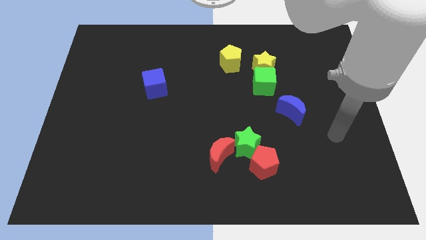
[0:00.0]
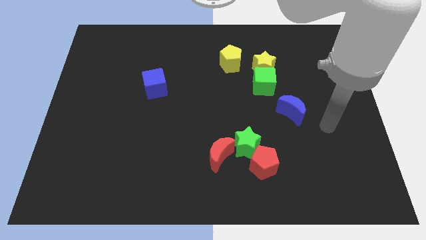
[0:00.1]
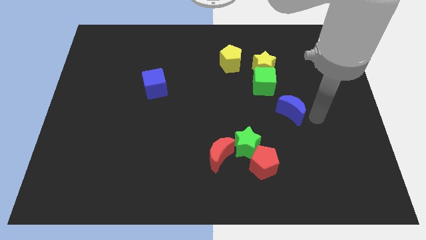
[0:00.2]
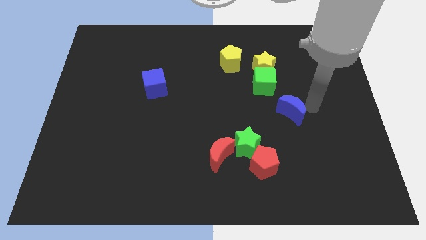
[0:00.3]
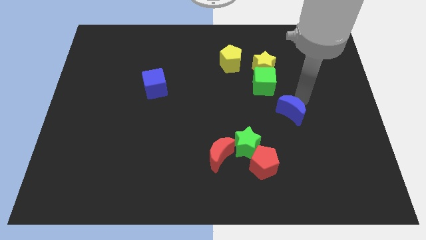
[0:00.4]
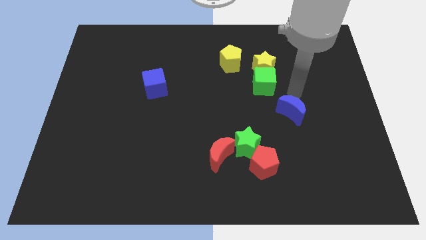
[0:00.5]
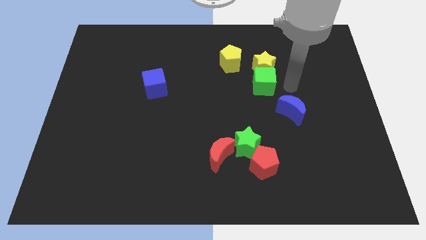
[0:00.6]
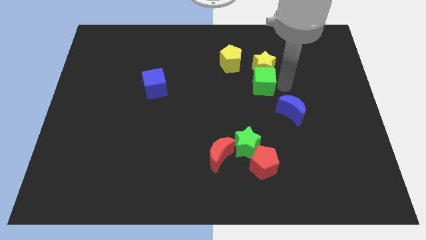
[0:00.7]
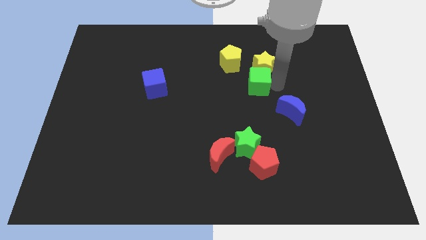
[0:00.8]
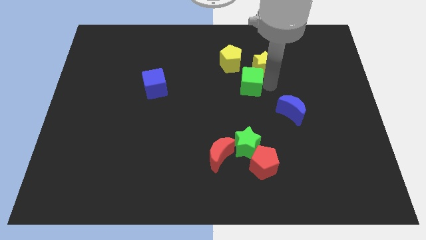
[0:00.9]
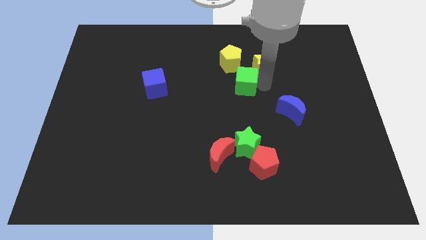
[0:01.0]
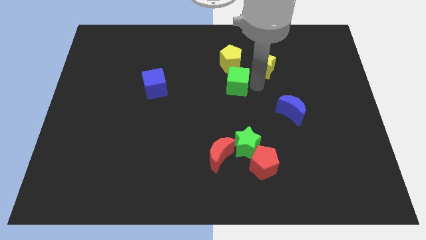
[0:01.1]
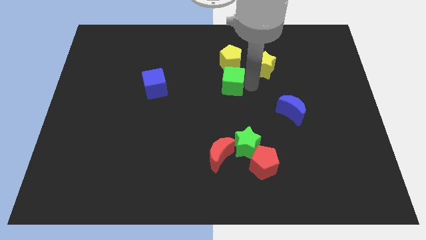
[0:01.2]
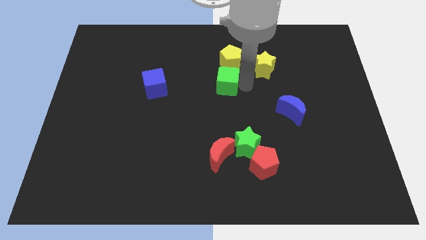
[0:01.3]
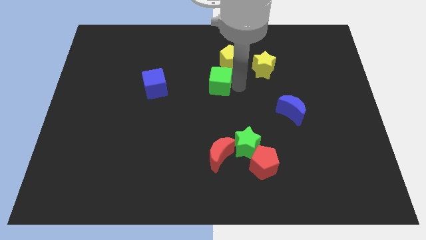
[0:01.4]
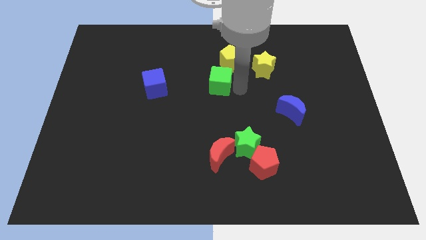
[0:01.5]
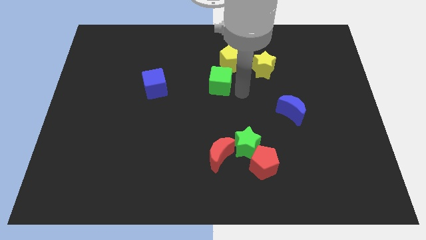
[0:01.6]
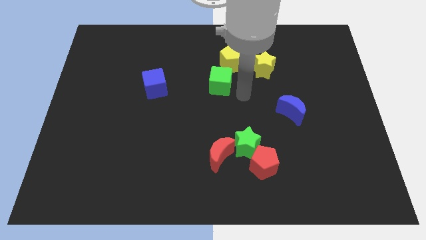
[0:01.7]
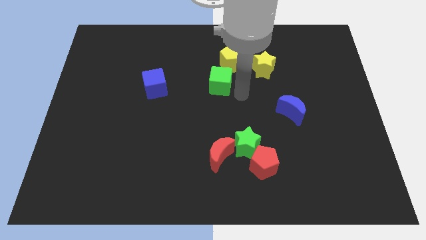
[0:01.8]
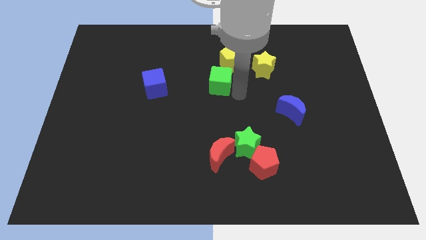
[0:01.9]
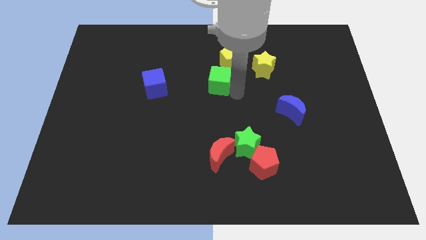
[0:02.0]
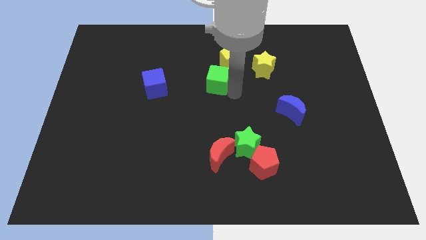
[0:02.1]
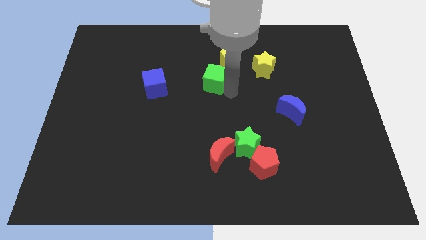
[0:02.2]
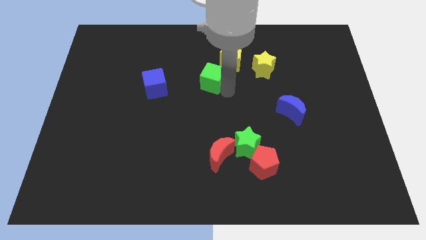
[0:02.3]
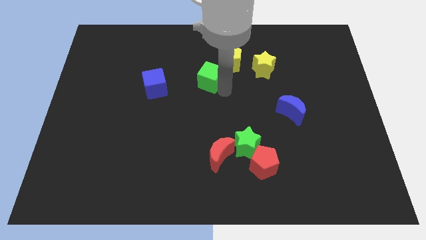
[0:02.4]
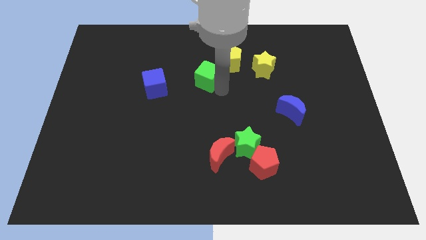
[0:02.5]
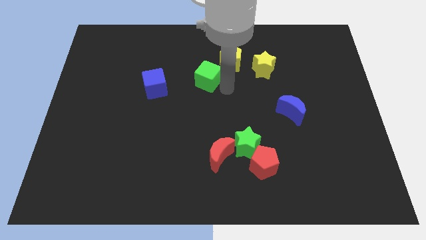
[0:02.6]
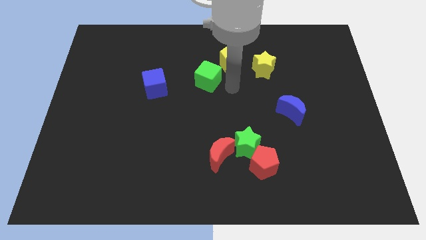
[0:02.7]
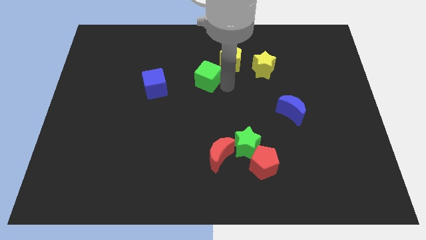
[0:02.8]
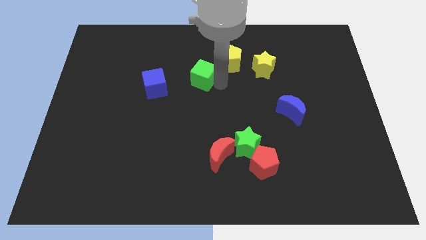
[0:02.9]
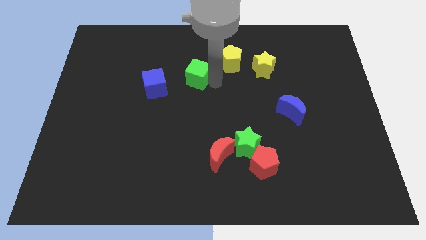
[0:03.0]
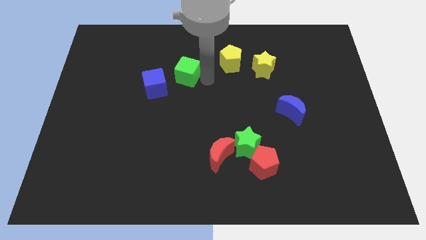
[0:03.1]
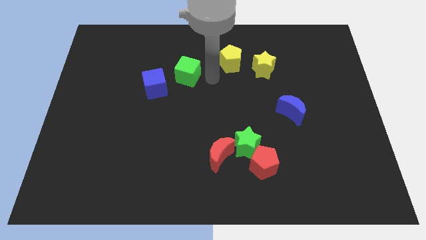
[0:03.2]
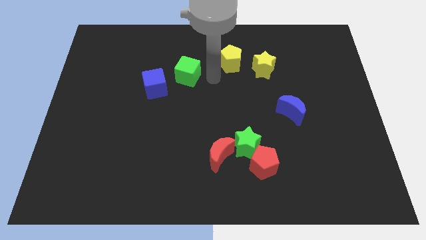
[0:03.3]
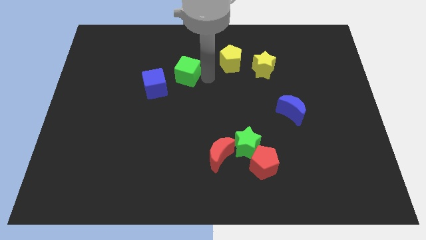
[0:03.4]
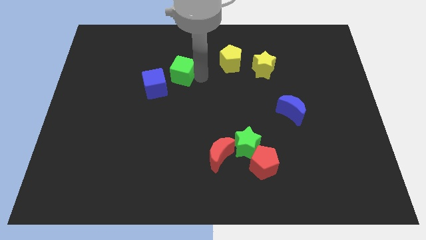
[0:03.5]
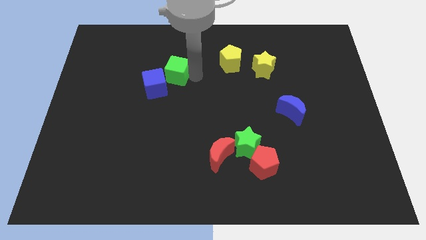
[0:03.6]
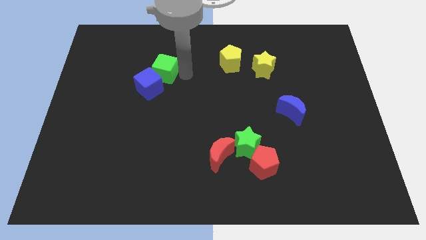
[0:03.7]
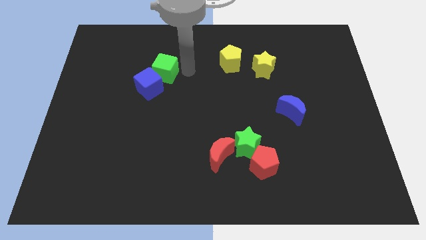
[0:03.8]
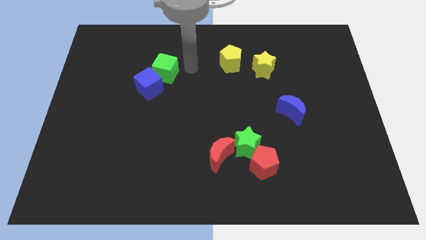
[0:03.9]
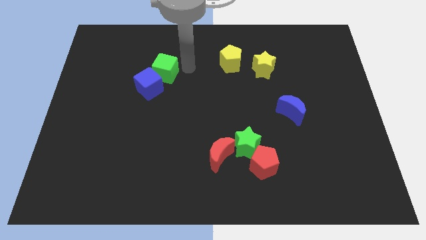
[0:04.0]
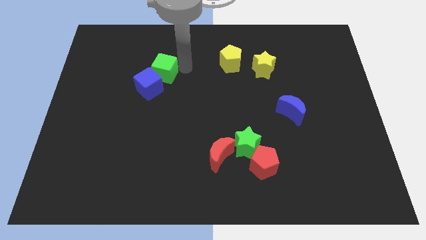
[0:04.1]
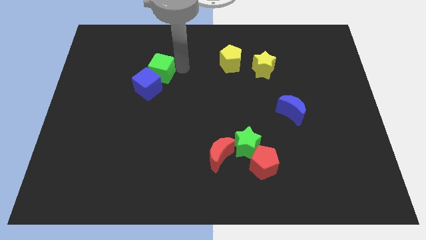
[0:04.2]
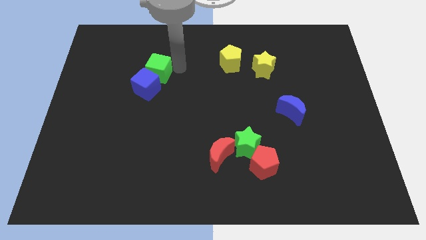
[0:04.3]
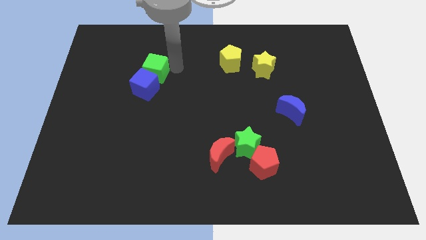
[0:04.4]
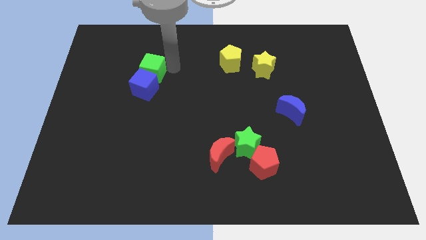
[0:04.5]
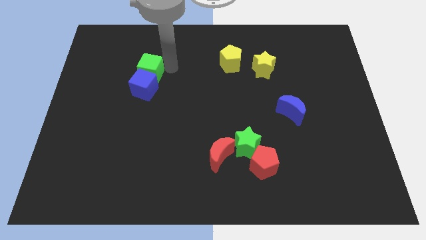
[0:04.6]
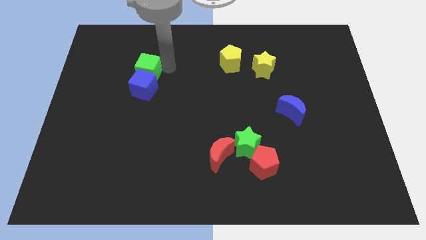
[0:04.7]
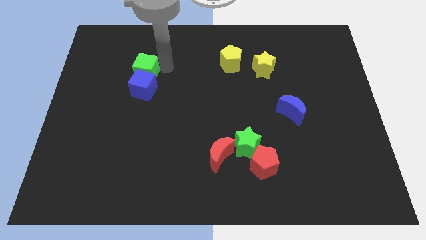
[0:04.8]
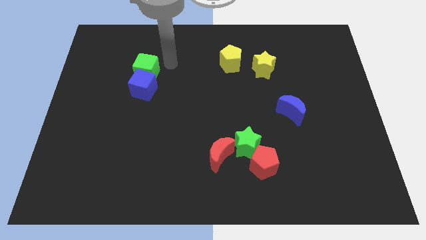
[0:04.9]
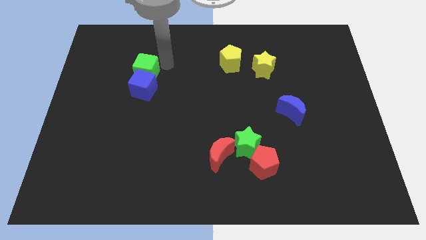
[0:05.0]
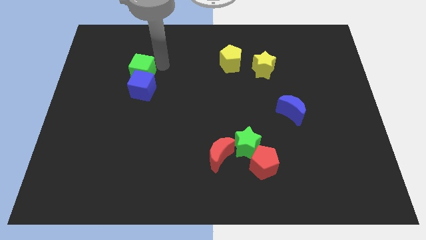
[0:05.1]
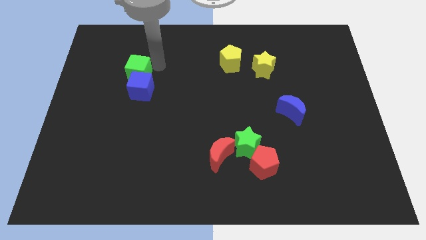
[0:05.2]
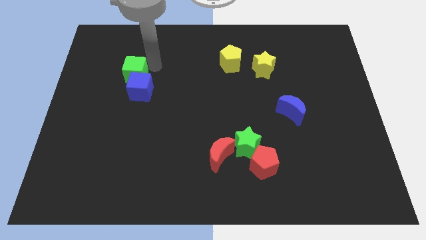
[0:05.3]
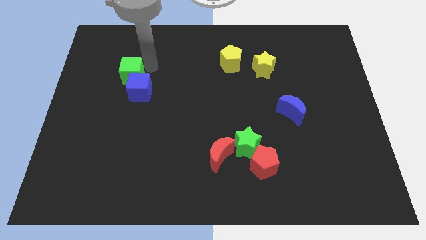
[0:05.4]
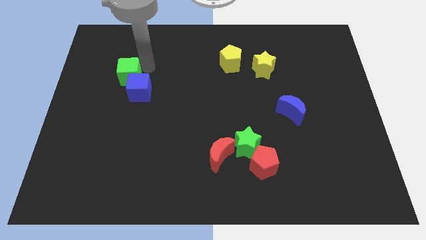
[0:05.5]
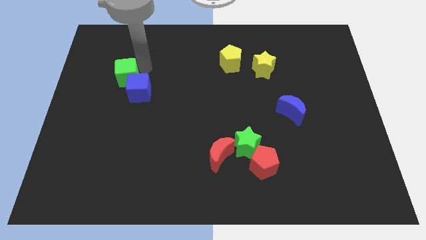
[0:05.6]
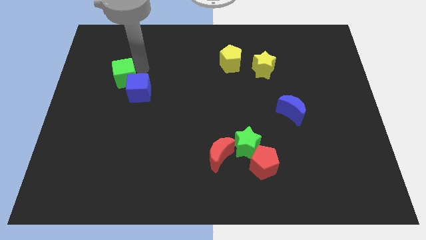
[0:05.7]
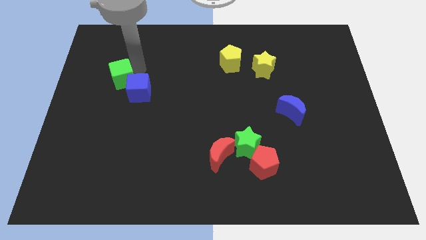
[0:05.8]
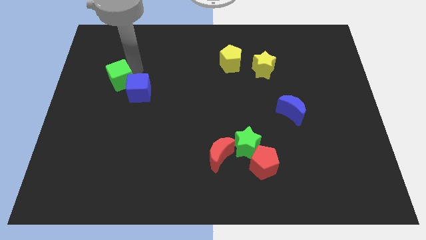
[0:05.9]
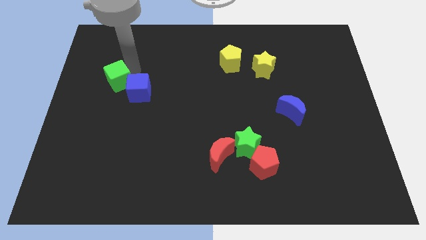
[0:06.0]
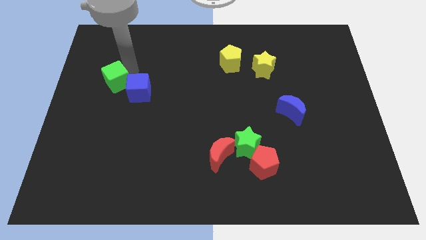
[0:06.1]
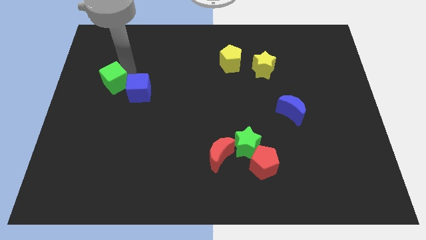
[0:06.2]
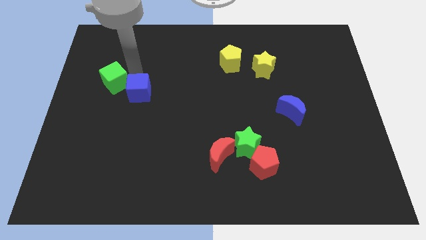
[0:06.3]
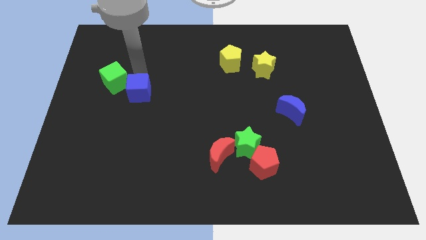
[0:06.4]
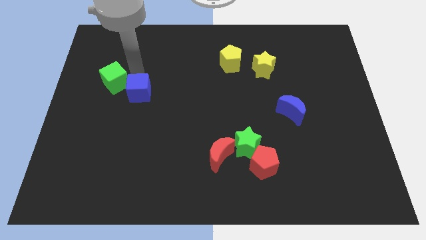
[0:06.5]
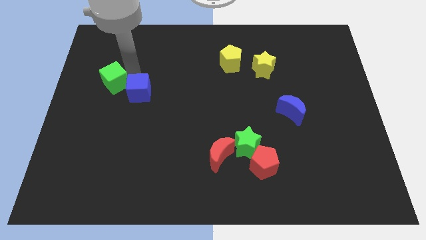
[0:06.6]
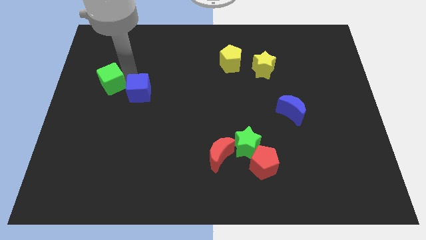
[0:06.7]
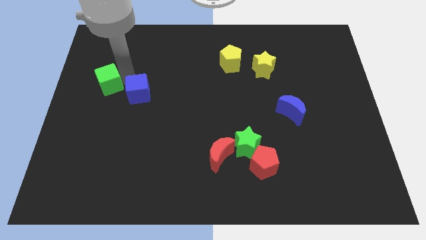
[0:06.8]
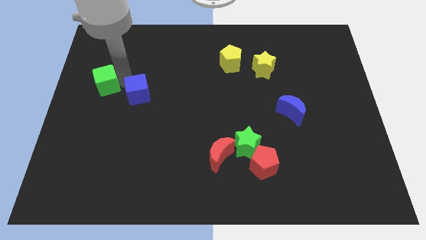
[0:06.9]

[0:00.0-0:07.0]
move the green cube to the center left
